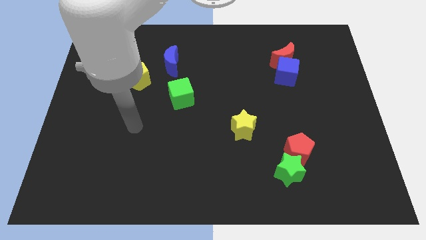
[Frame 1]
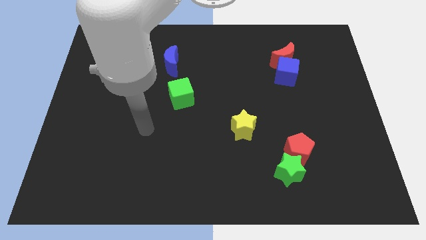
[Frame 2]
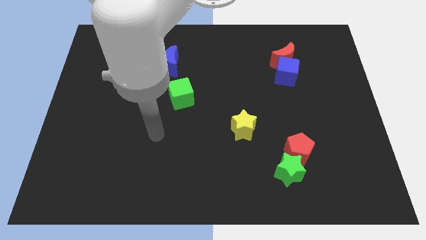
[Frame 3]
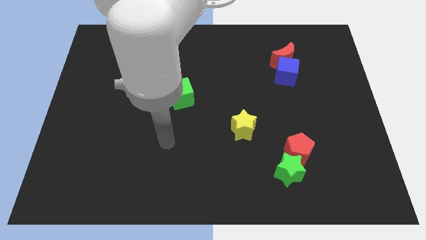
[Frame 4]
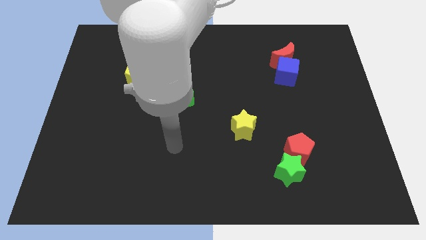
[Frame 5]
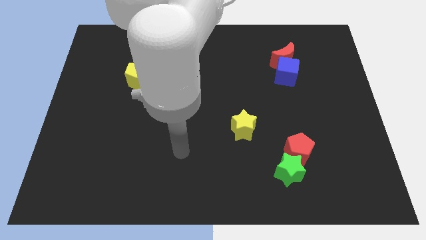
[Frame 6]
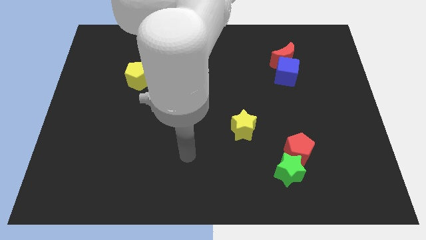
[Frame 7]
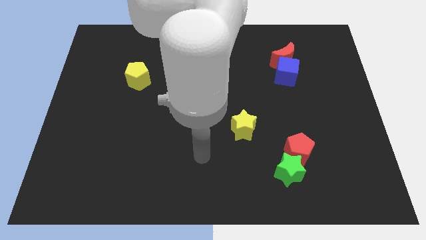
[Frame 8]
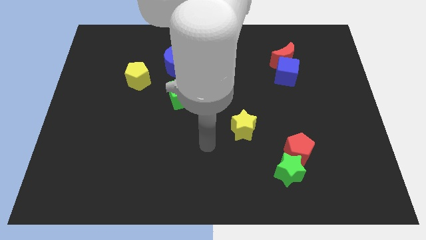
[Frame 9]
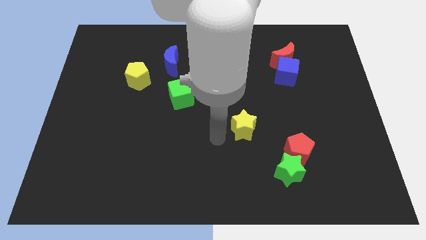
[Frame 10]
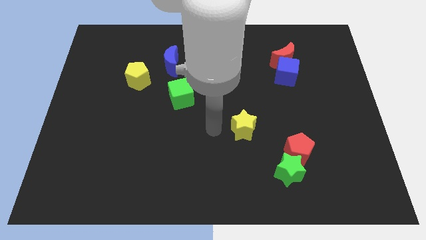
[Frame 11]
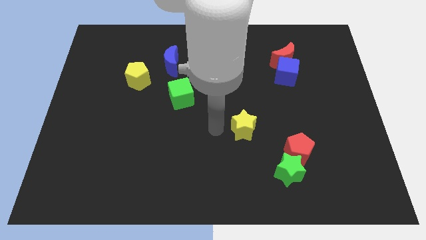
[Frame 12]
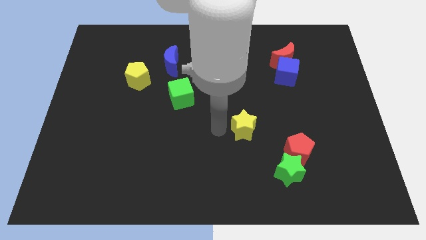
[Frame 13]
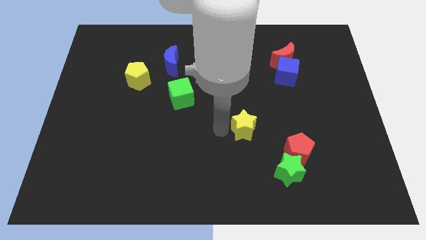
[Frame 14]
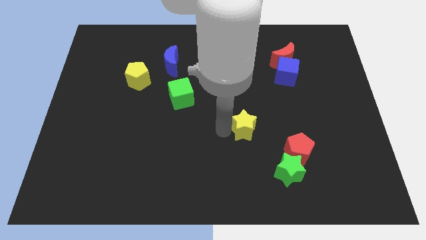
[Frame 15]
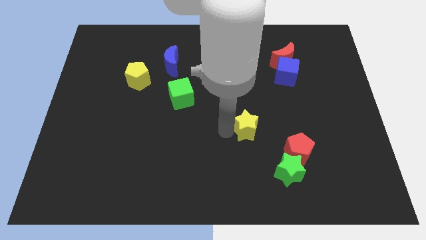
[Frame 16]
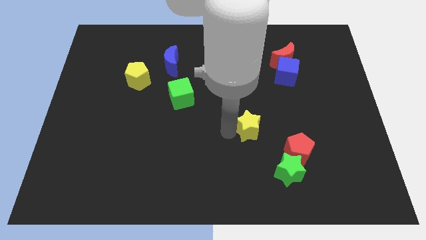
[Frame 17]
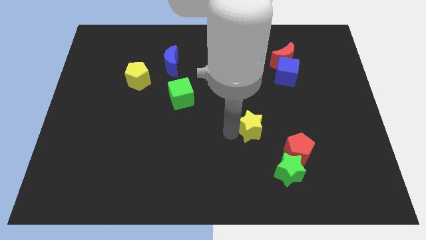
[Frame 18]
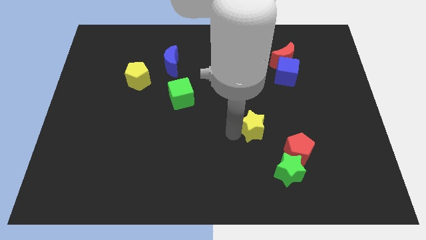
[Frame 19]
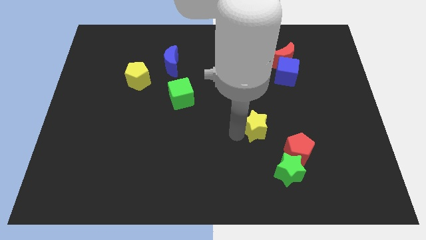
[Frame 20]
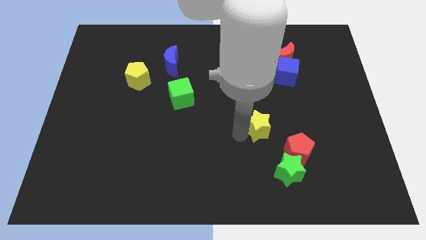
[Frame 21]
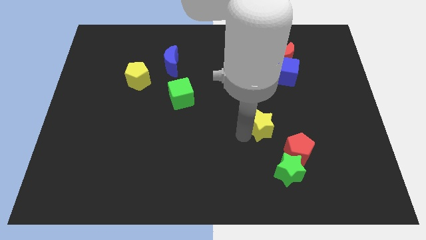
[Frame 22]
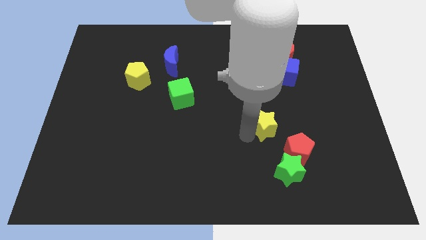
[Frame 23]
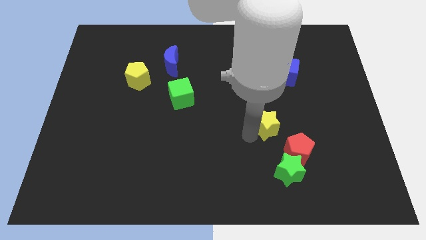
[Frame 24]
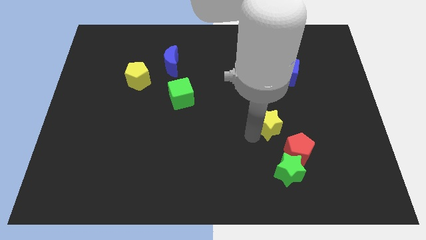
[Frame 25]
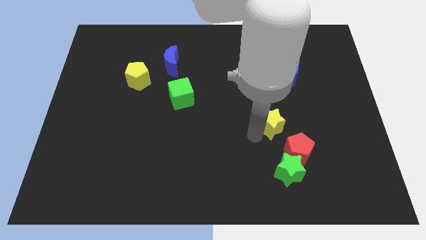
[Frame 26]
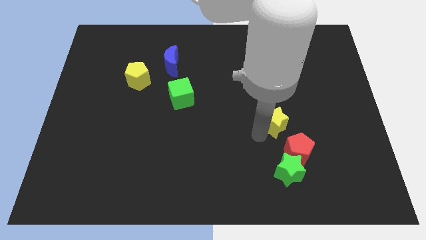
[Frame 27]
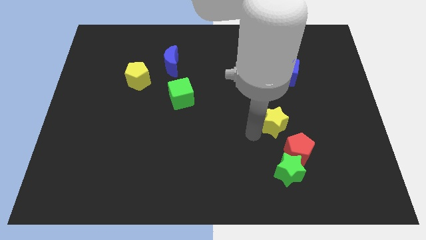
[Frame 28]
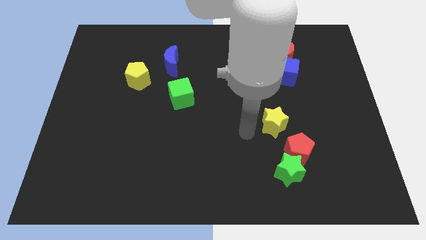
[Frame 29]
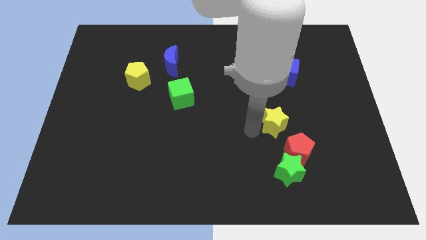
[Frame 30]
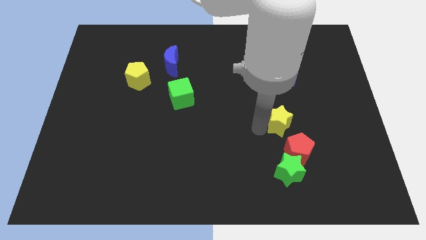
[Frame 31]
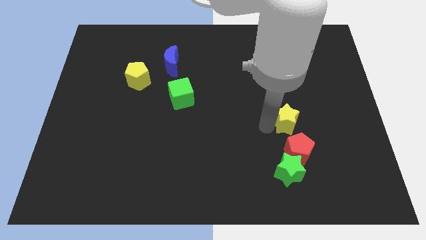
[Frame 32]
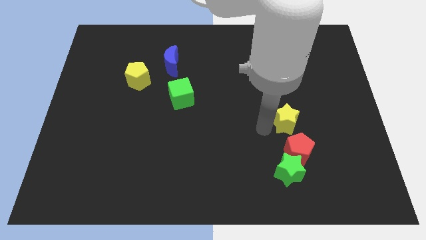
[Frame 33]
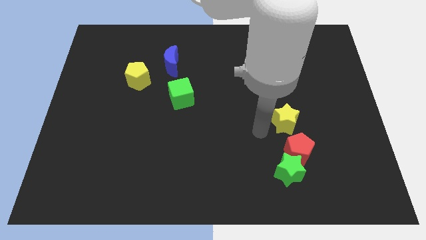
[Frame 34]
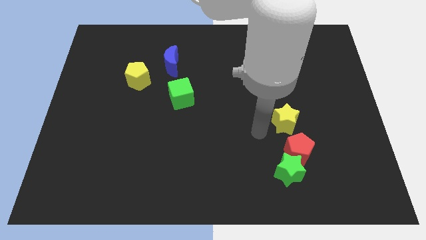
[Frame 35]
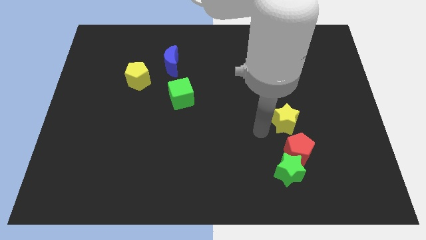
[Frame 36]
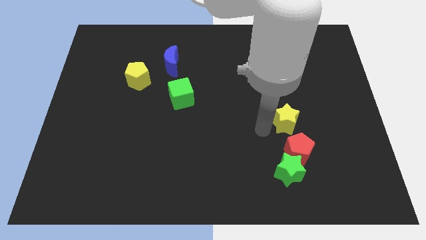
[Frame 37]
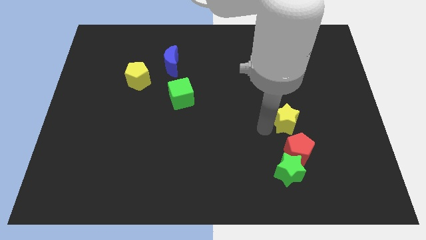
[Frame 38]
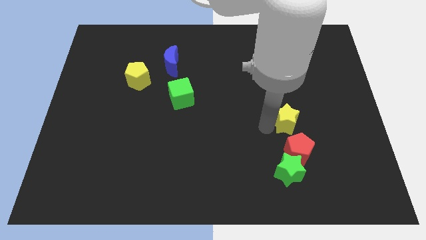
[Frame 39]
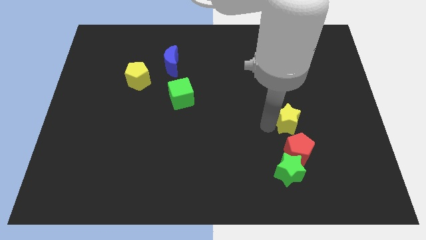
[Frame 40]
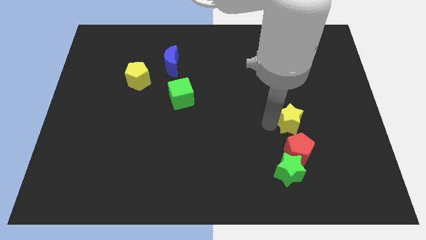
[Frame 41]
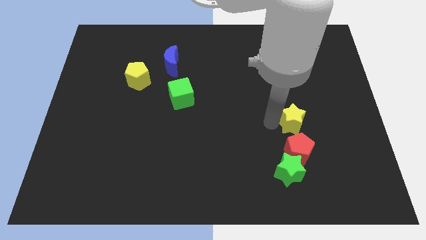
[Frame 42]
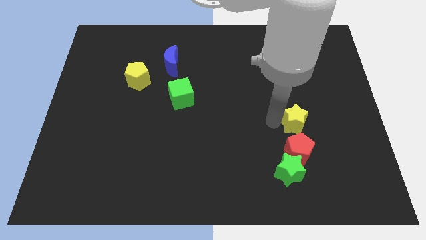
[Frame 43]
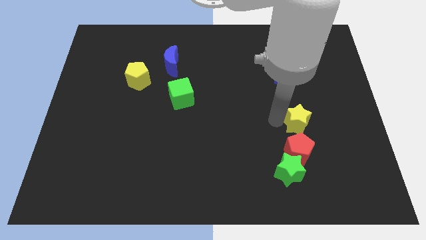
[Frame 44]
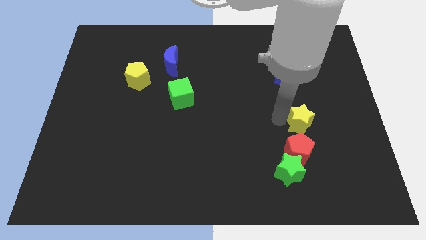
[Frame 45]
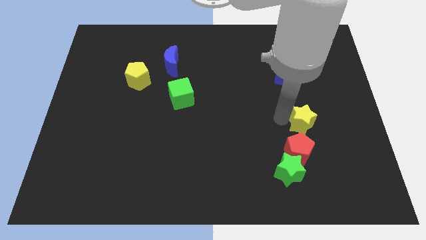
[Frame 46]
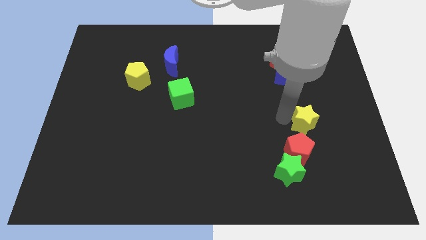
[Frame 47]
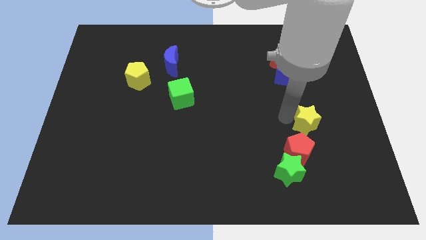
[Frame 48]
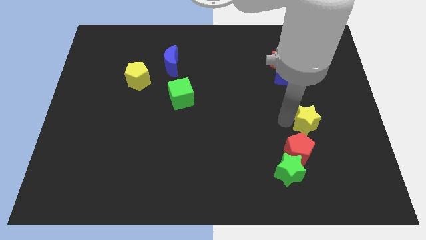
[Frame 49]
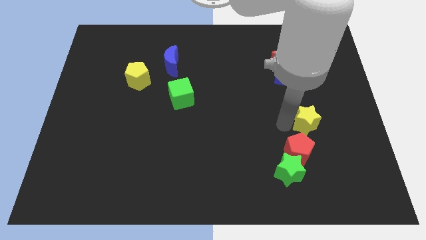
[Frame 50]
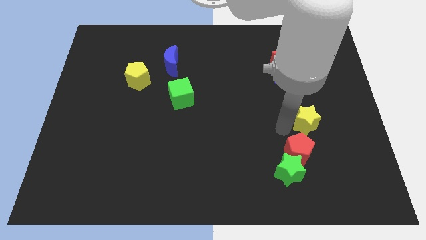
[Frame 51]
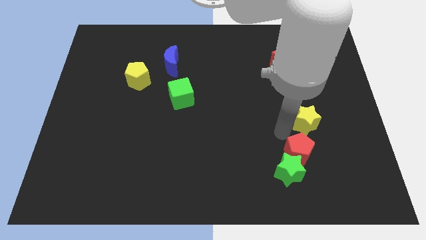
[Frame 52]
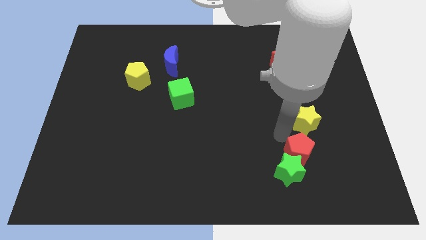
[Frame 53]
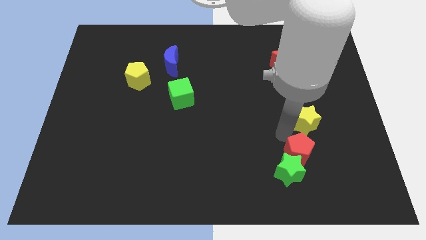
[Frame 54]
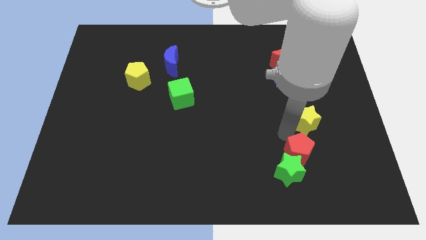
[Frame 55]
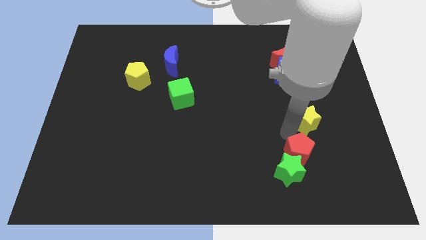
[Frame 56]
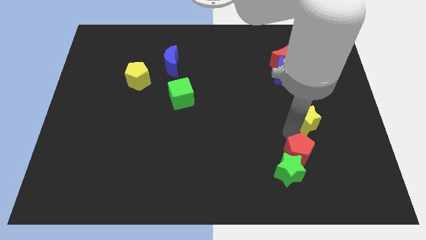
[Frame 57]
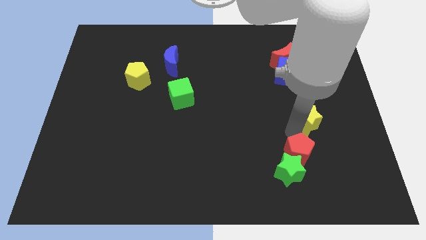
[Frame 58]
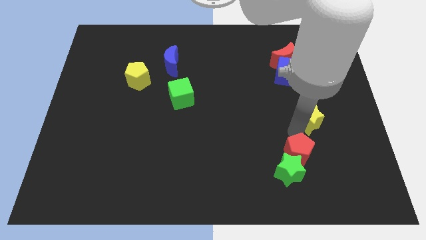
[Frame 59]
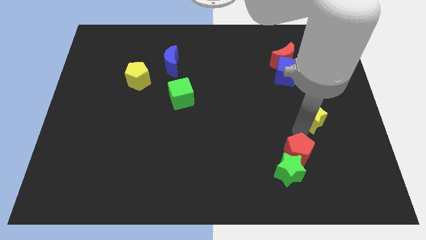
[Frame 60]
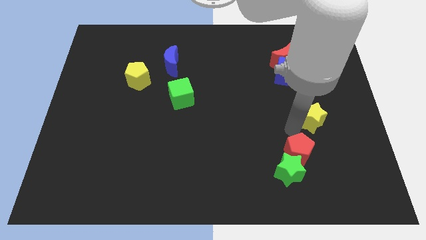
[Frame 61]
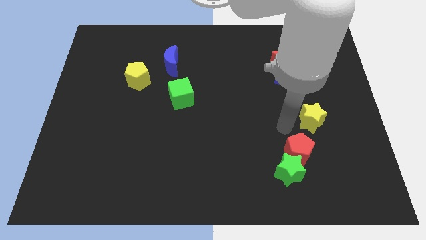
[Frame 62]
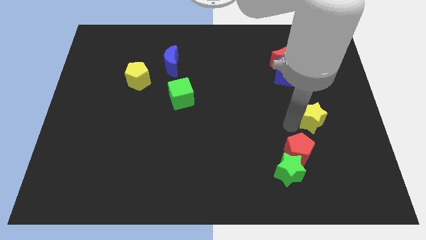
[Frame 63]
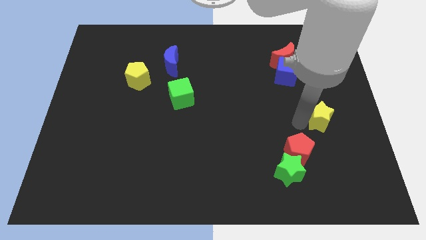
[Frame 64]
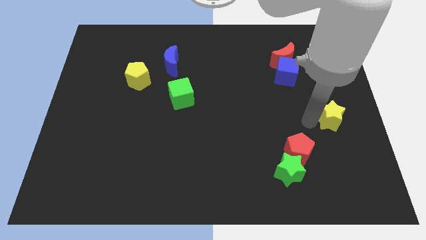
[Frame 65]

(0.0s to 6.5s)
push the yellow star to the center right
